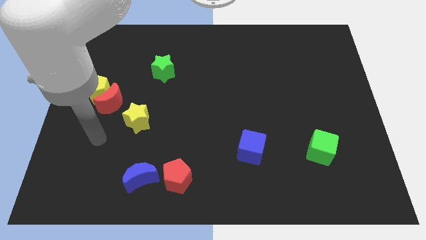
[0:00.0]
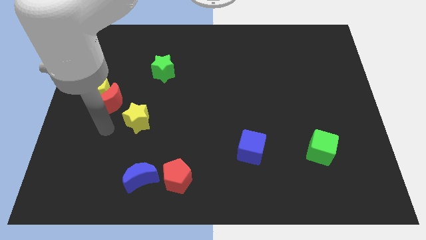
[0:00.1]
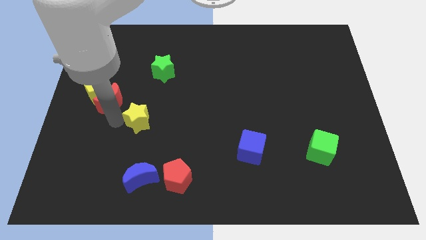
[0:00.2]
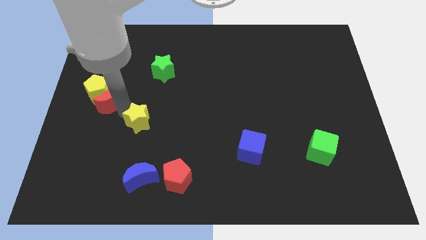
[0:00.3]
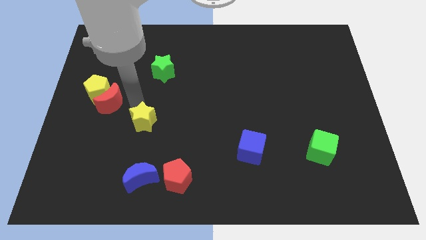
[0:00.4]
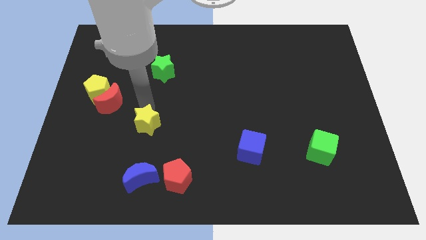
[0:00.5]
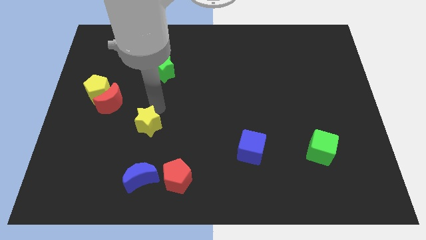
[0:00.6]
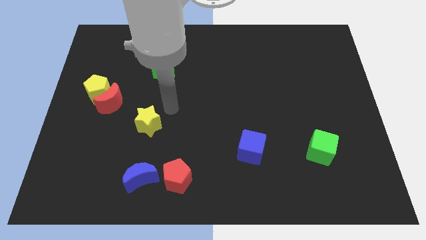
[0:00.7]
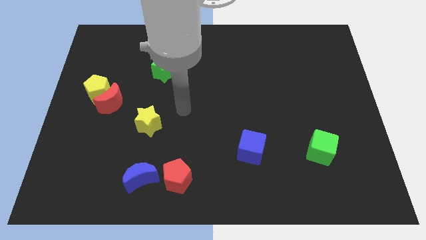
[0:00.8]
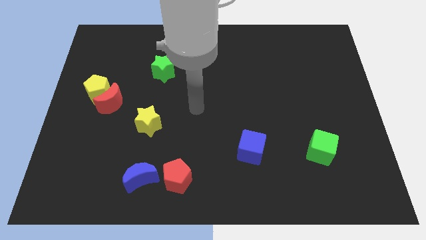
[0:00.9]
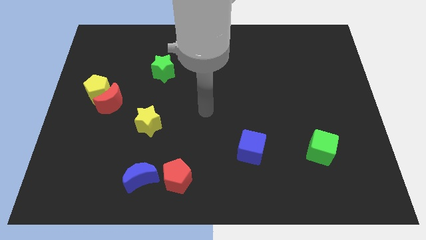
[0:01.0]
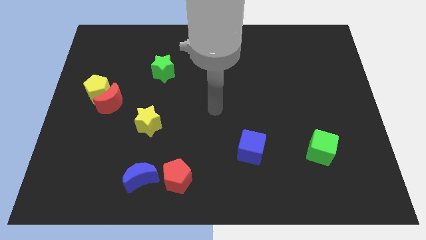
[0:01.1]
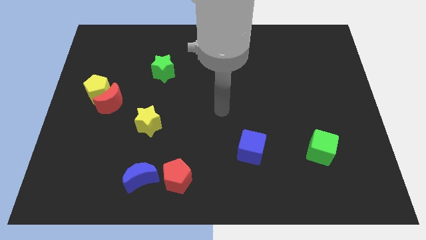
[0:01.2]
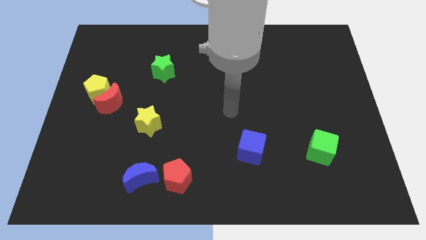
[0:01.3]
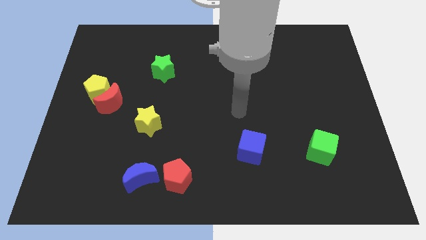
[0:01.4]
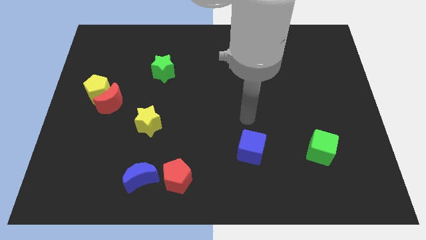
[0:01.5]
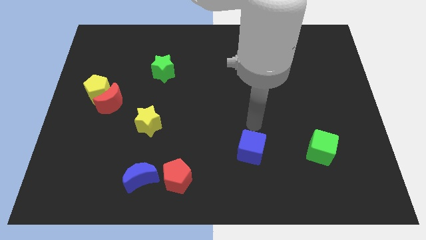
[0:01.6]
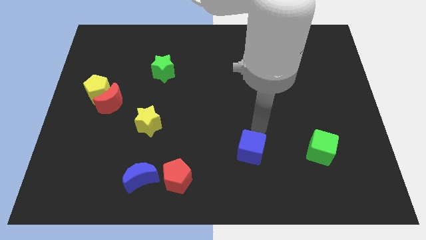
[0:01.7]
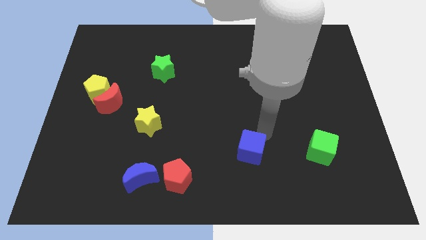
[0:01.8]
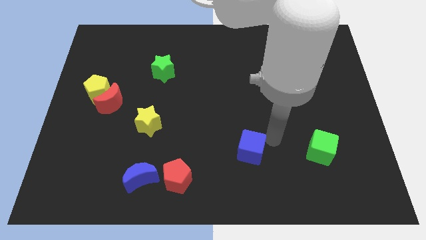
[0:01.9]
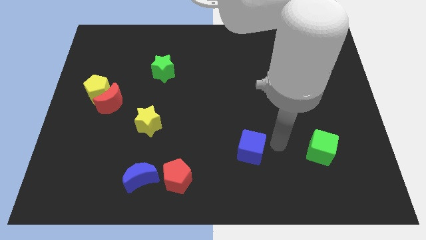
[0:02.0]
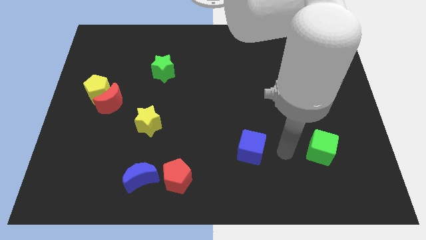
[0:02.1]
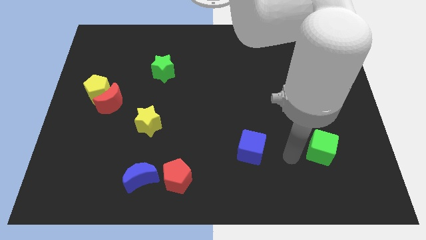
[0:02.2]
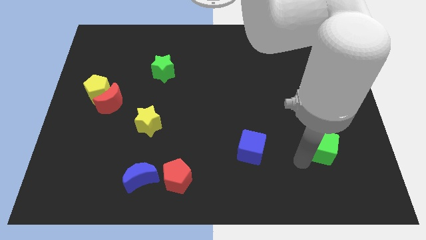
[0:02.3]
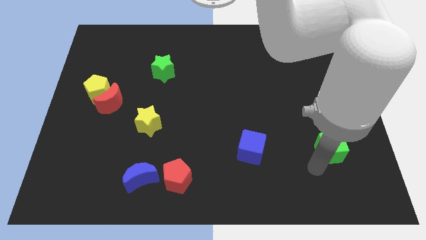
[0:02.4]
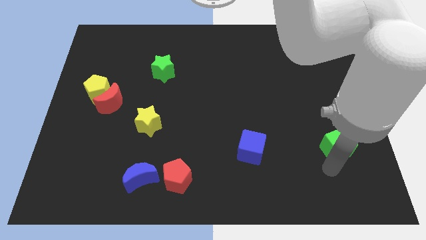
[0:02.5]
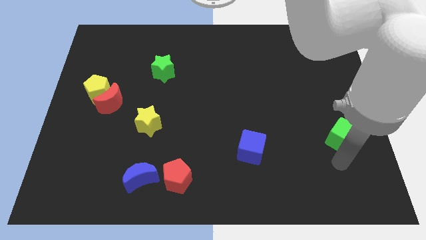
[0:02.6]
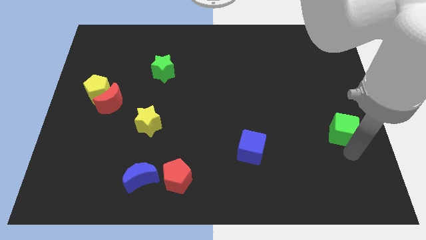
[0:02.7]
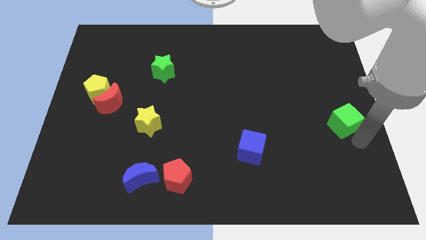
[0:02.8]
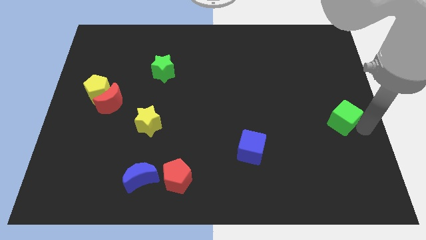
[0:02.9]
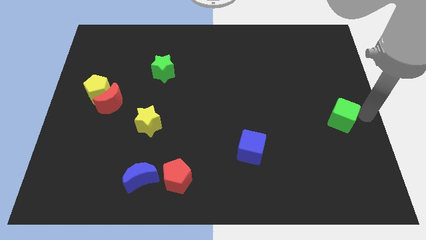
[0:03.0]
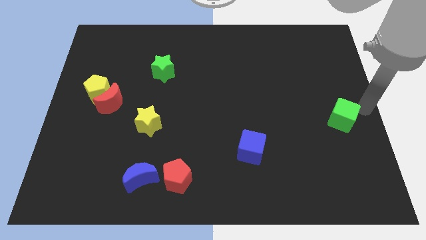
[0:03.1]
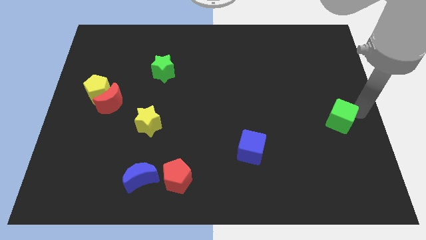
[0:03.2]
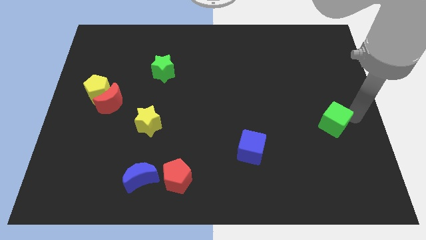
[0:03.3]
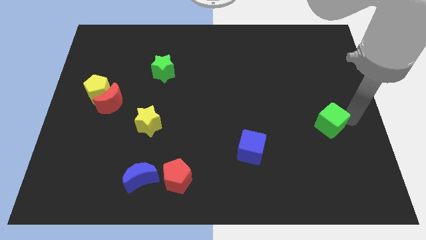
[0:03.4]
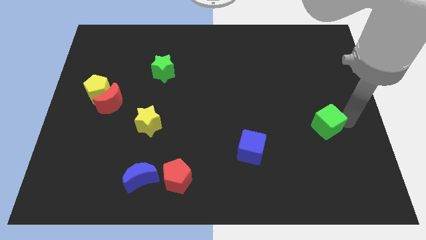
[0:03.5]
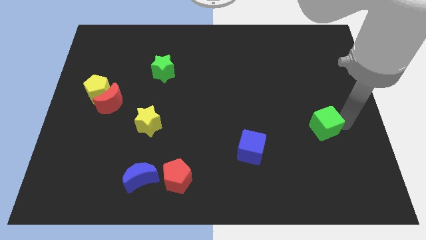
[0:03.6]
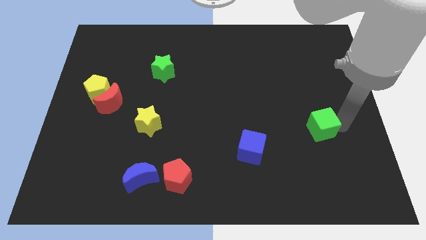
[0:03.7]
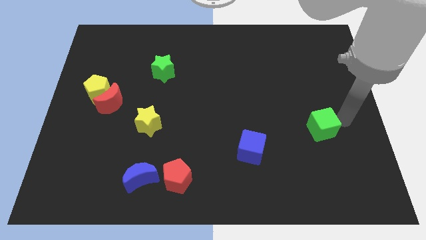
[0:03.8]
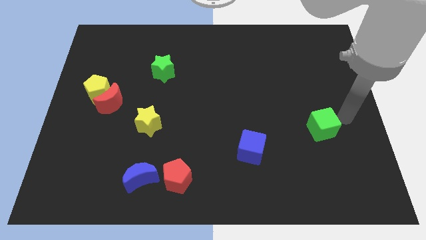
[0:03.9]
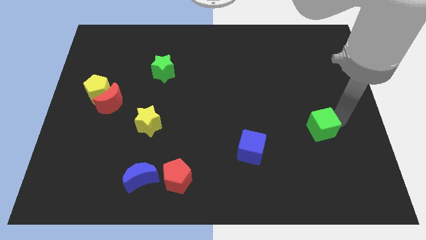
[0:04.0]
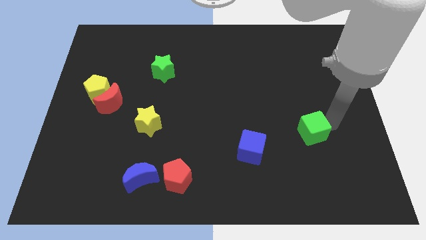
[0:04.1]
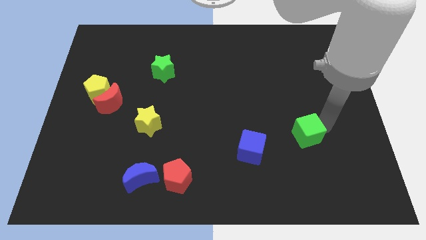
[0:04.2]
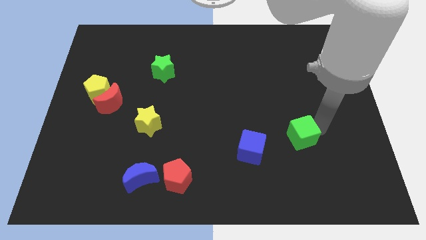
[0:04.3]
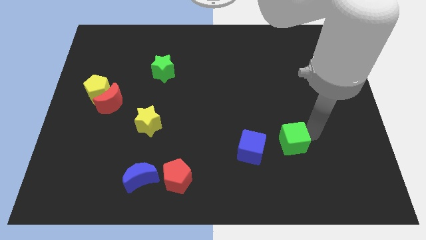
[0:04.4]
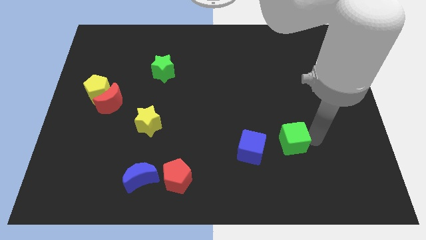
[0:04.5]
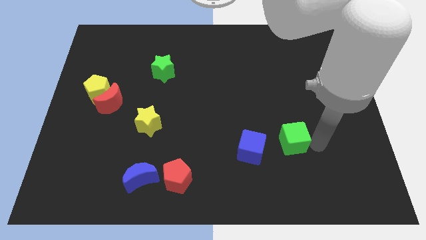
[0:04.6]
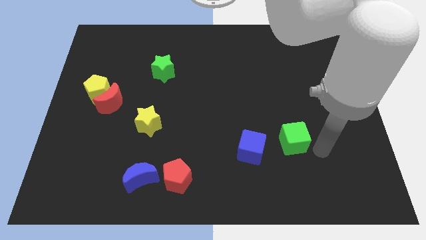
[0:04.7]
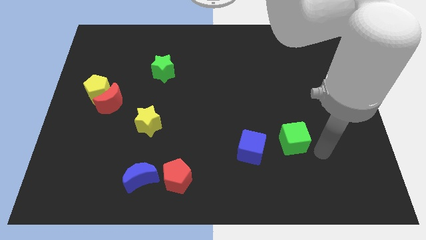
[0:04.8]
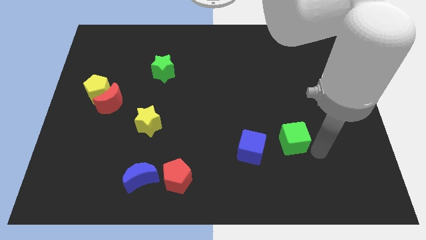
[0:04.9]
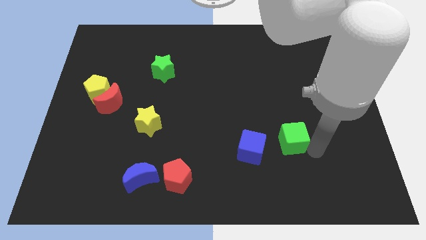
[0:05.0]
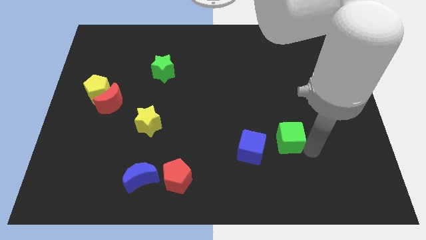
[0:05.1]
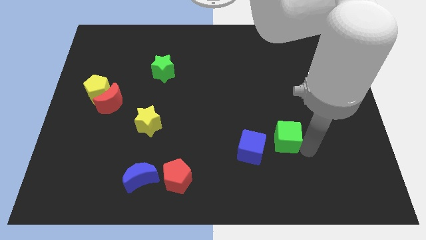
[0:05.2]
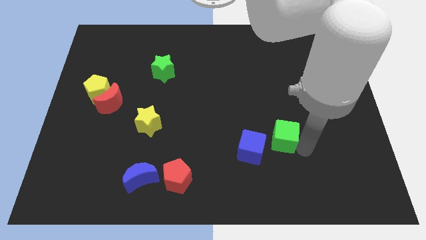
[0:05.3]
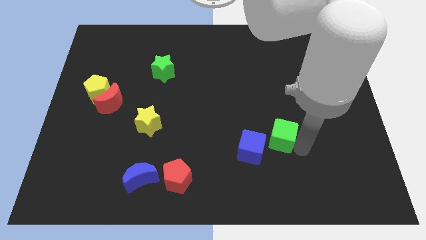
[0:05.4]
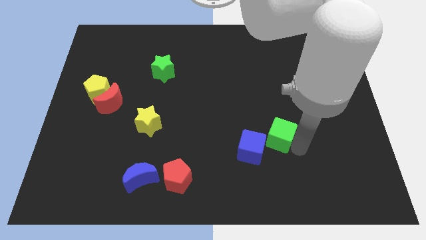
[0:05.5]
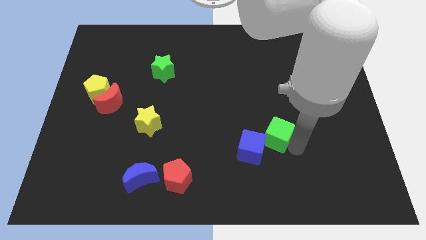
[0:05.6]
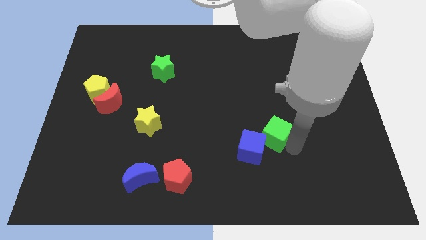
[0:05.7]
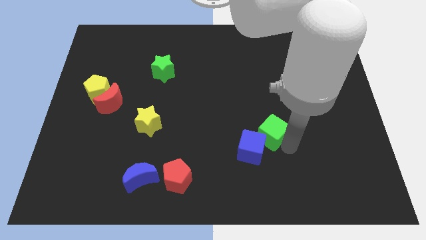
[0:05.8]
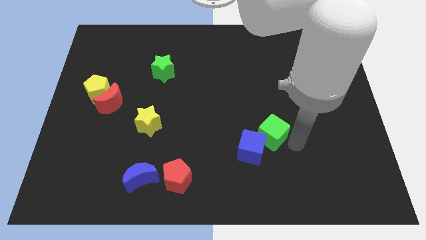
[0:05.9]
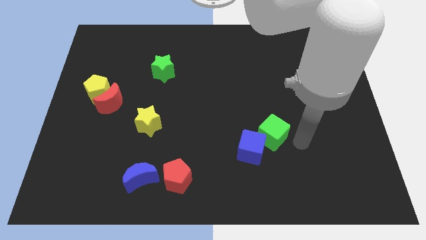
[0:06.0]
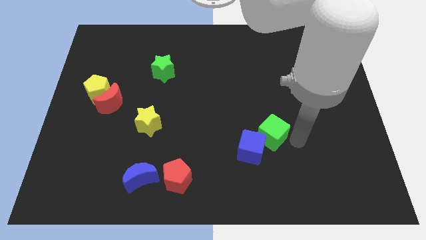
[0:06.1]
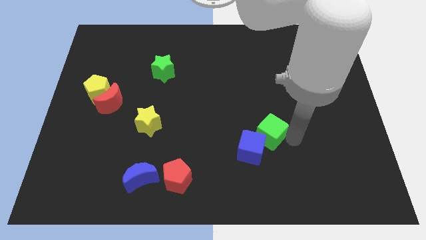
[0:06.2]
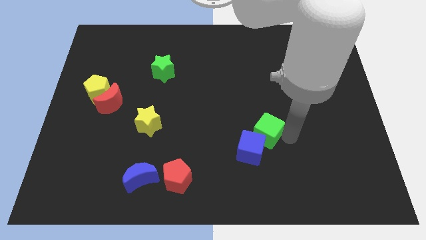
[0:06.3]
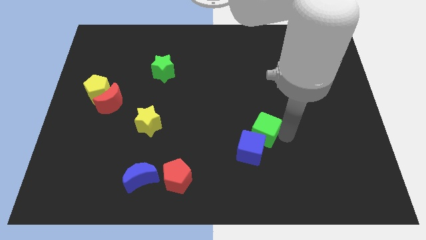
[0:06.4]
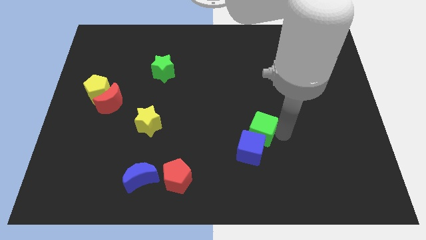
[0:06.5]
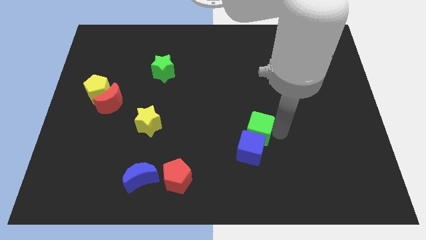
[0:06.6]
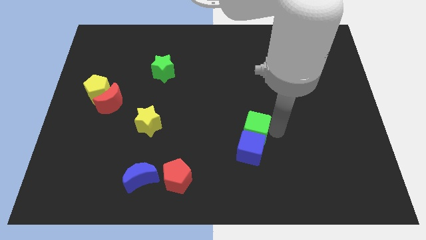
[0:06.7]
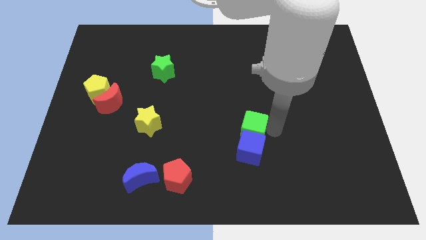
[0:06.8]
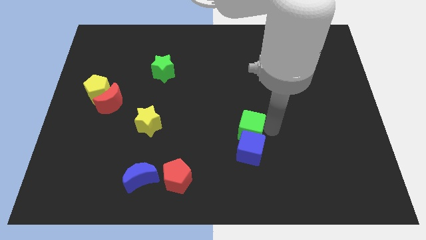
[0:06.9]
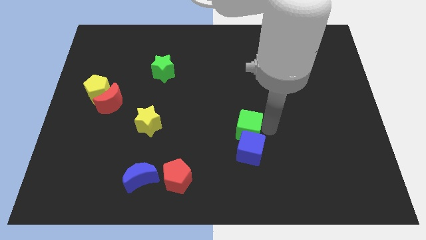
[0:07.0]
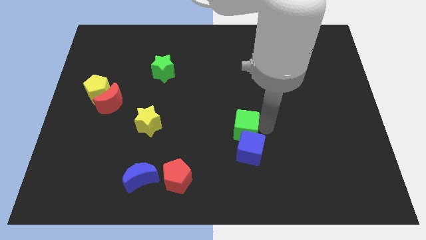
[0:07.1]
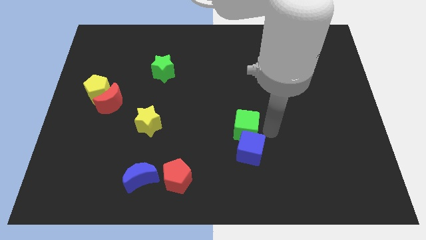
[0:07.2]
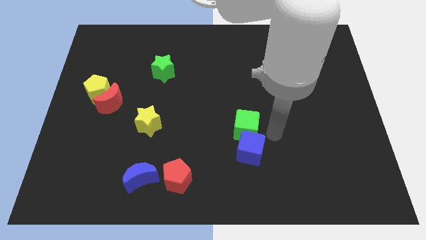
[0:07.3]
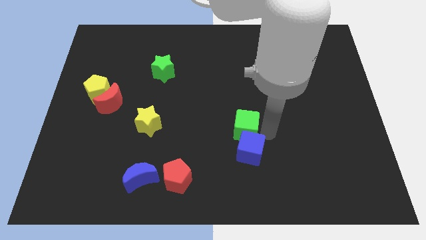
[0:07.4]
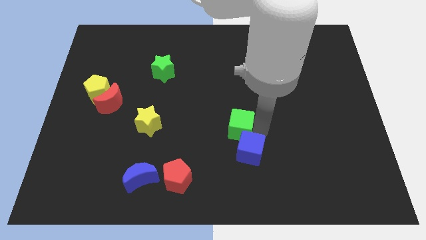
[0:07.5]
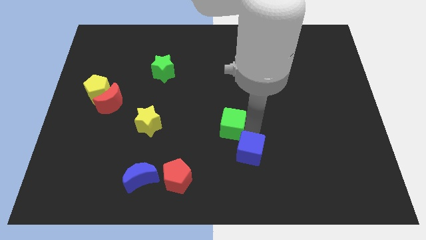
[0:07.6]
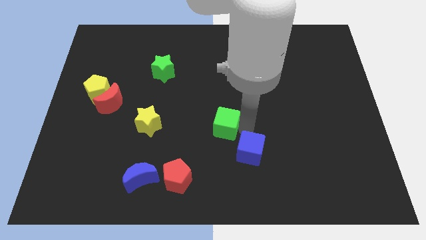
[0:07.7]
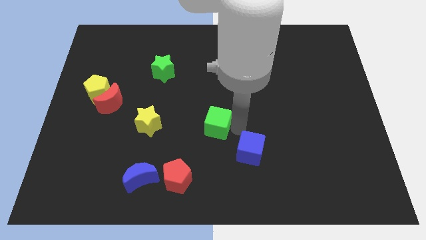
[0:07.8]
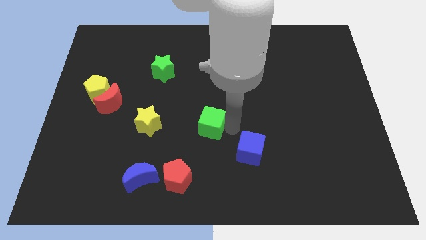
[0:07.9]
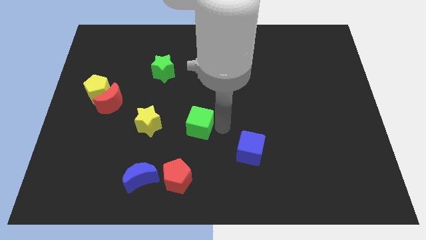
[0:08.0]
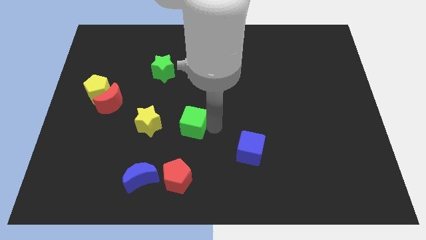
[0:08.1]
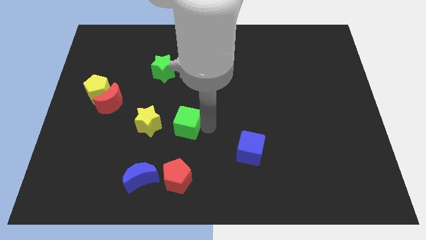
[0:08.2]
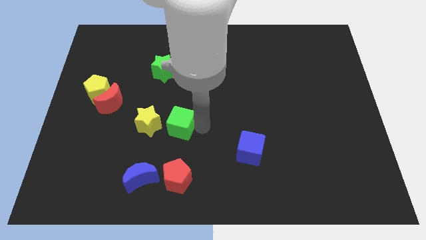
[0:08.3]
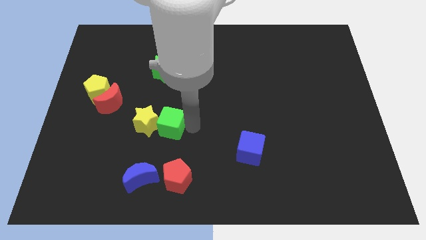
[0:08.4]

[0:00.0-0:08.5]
slide the green cube close to the yellow star
